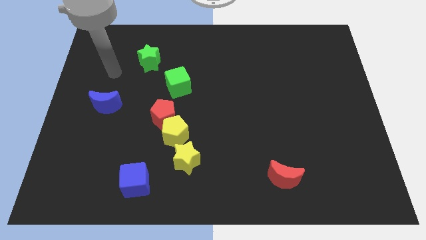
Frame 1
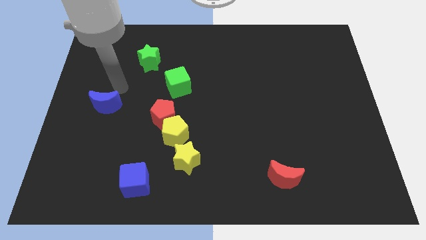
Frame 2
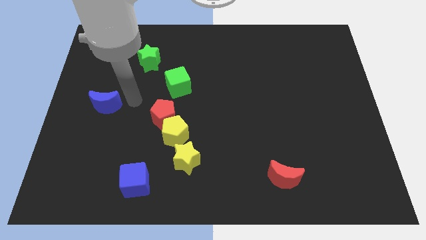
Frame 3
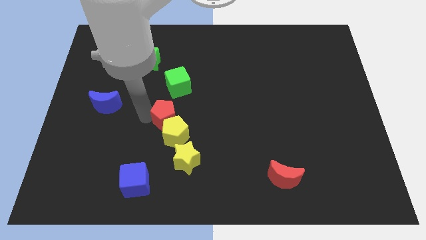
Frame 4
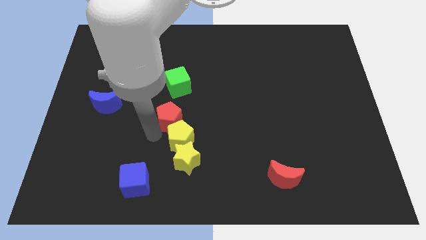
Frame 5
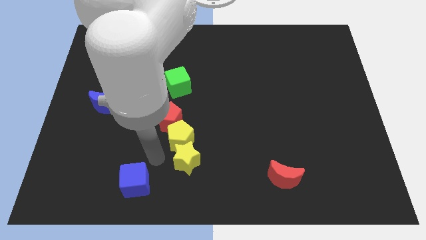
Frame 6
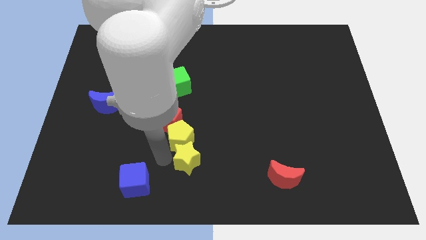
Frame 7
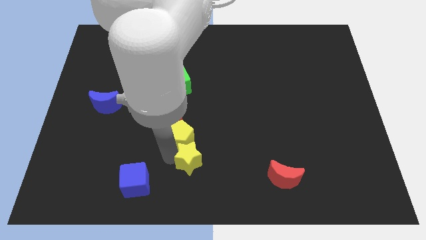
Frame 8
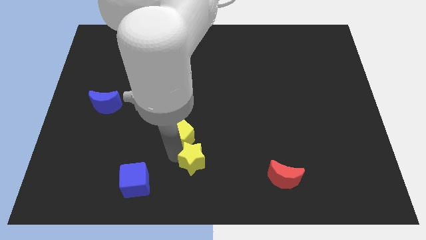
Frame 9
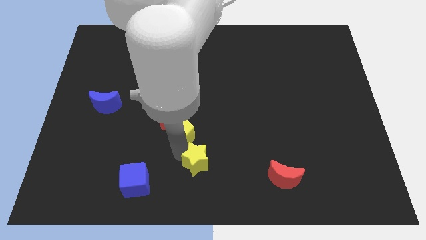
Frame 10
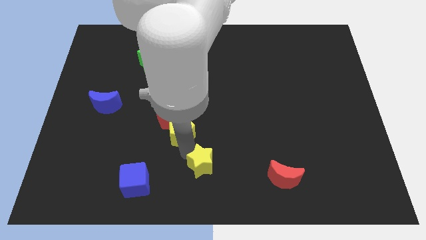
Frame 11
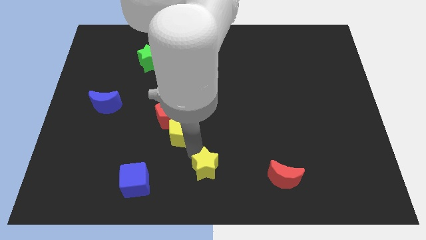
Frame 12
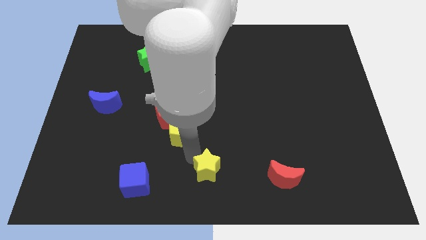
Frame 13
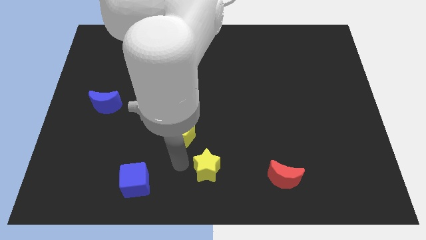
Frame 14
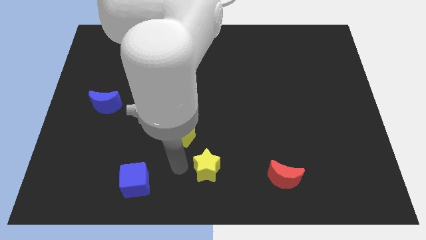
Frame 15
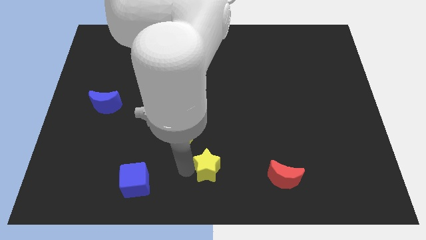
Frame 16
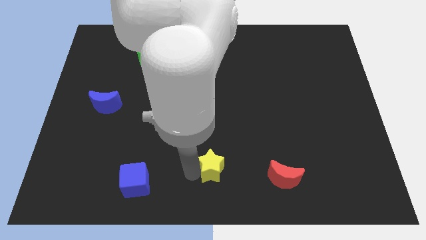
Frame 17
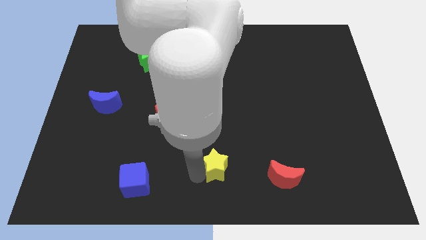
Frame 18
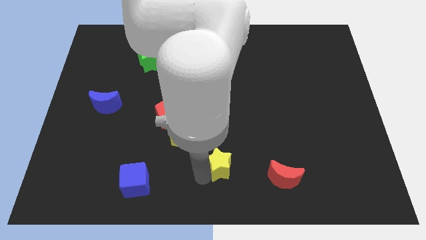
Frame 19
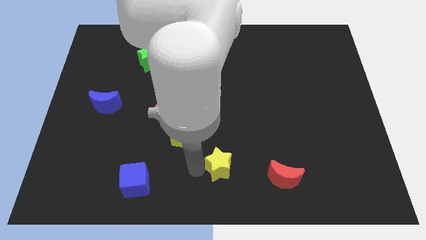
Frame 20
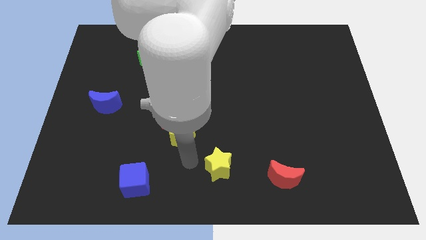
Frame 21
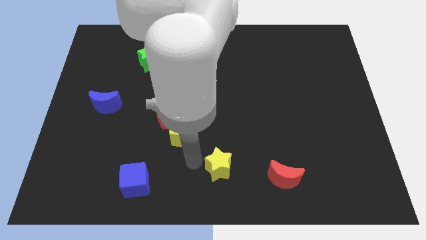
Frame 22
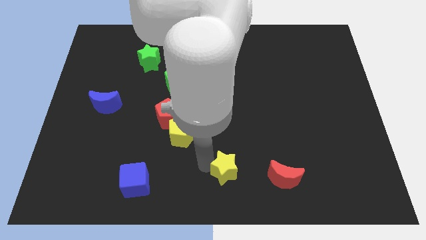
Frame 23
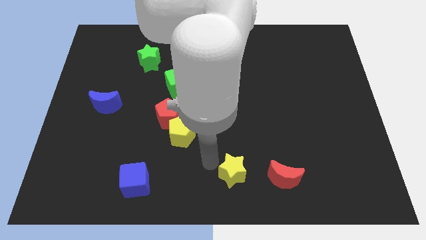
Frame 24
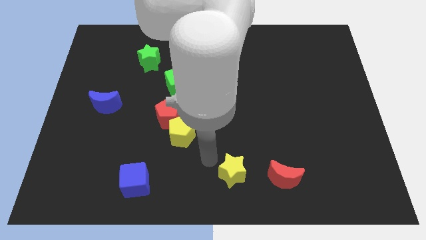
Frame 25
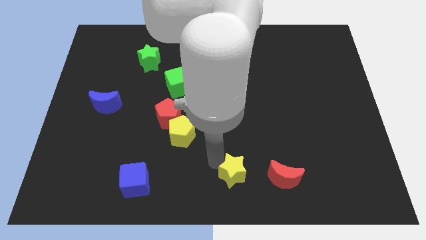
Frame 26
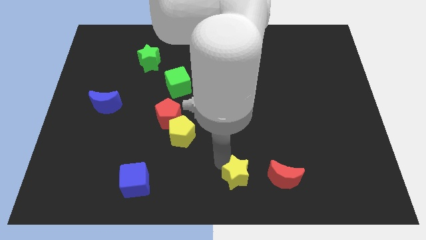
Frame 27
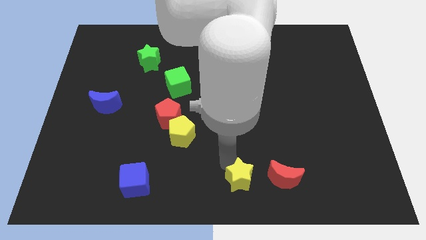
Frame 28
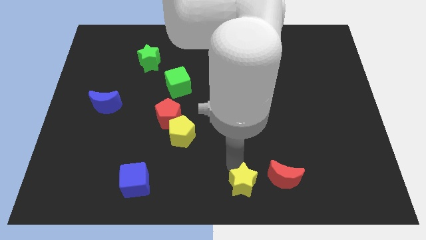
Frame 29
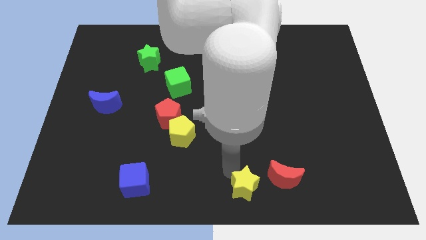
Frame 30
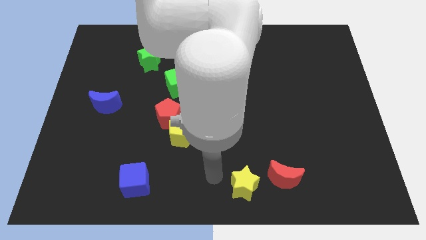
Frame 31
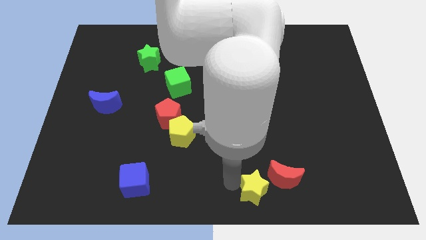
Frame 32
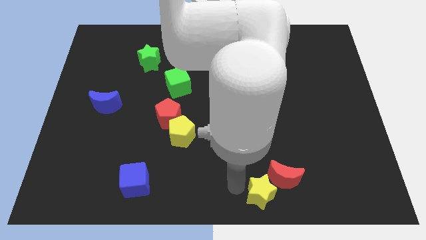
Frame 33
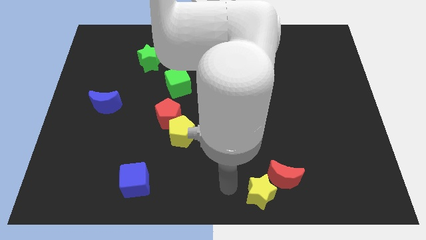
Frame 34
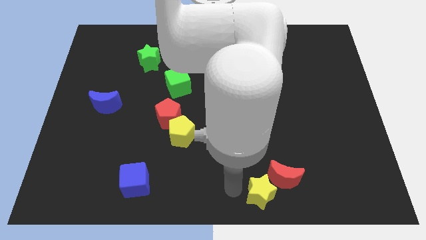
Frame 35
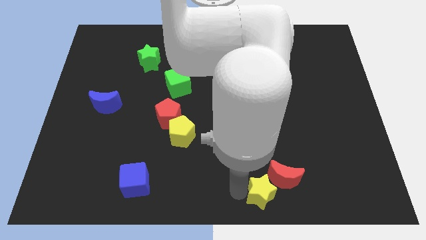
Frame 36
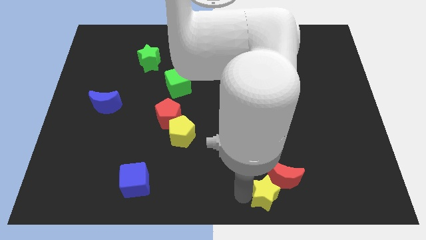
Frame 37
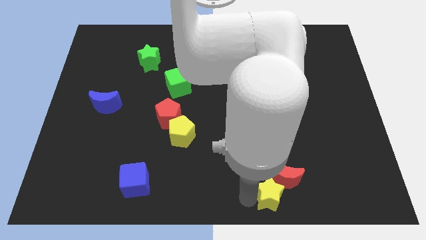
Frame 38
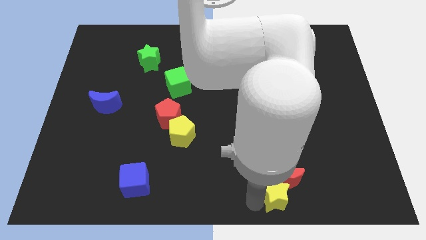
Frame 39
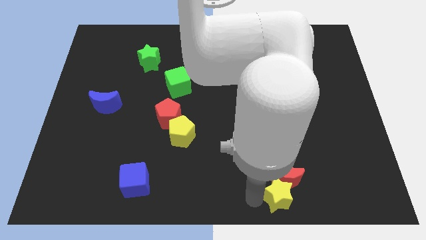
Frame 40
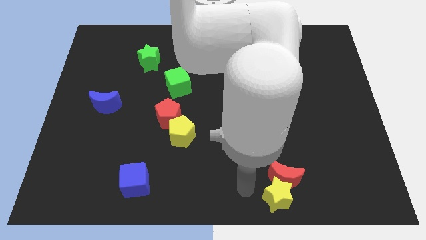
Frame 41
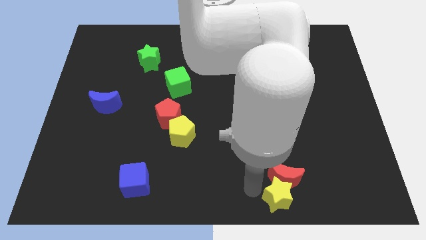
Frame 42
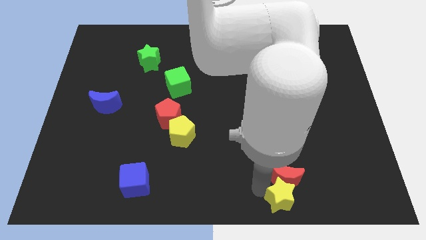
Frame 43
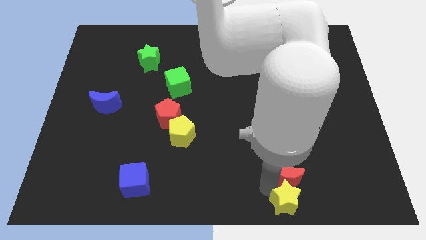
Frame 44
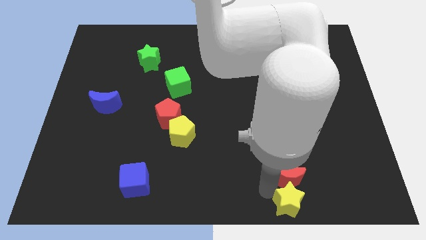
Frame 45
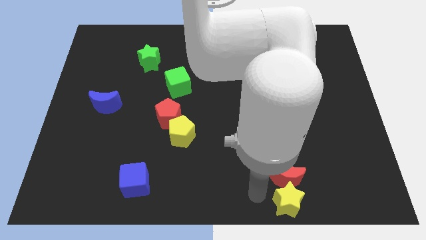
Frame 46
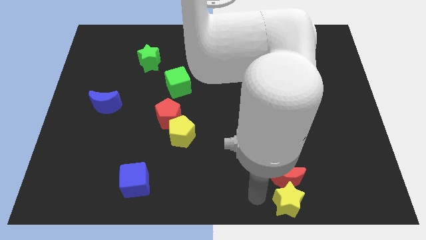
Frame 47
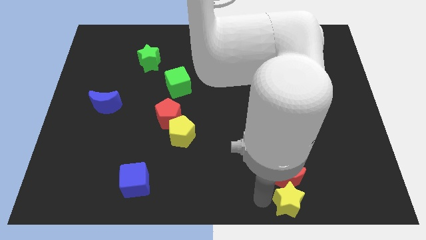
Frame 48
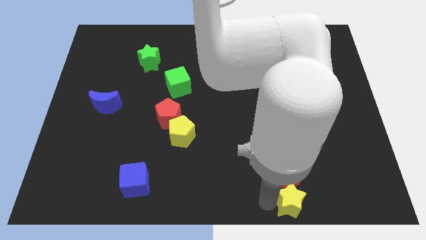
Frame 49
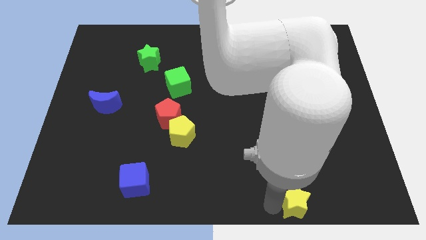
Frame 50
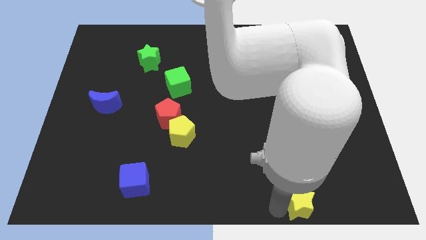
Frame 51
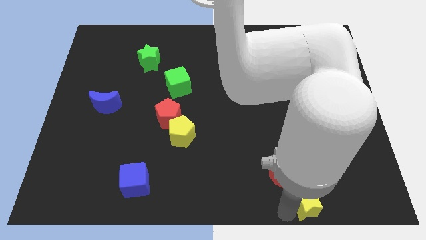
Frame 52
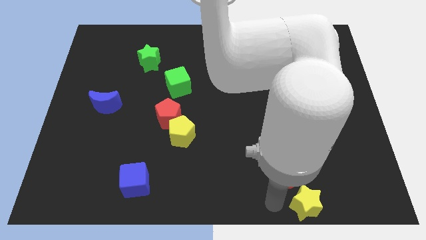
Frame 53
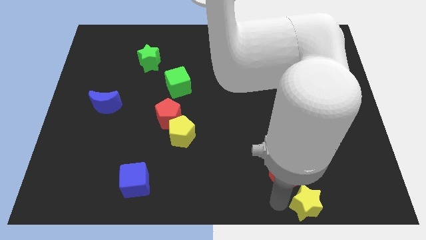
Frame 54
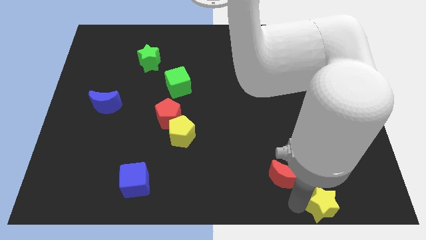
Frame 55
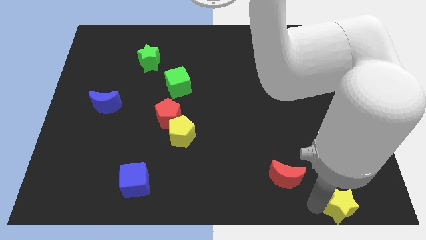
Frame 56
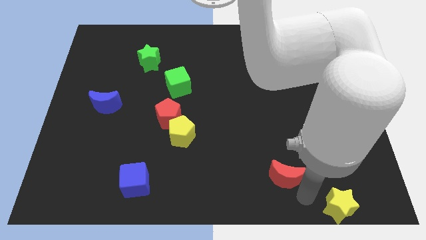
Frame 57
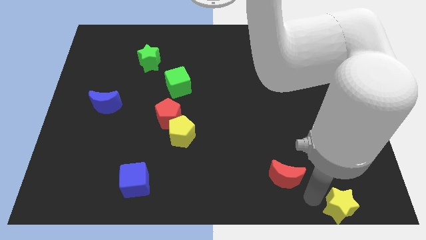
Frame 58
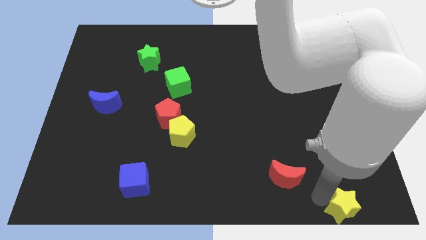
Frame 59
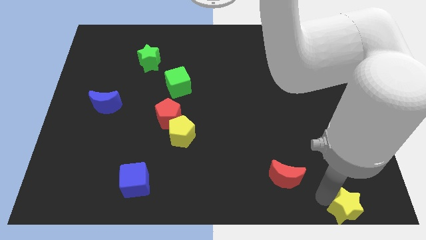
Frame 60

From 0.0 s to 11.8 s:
push the yellow star to the bottom right of the board

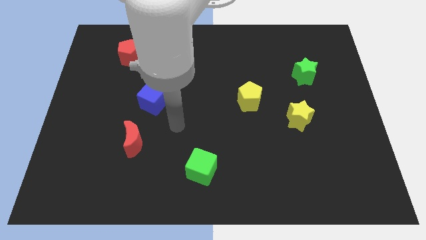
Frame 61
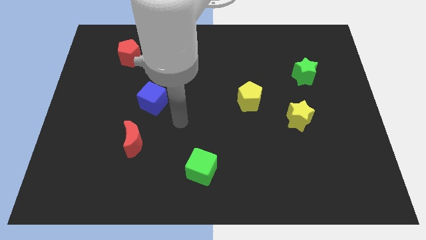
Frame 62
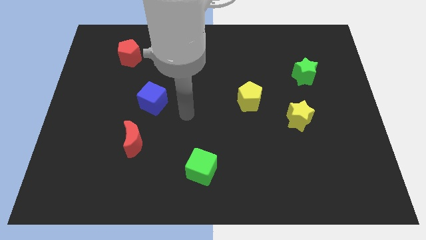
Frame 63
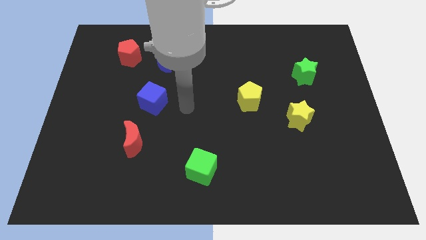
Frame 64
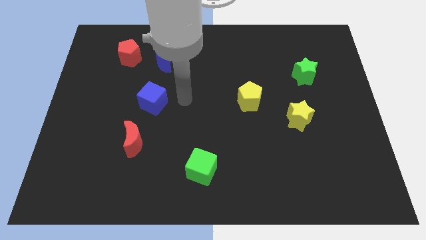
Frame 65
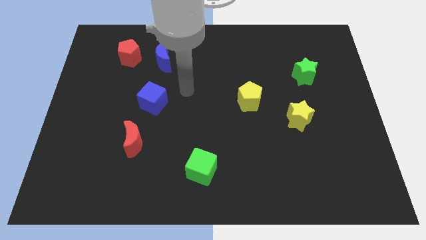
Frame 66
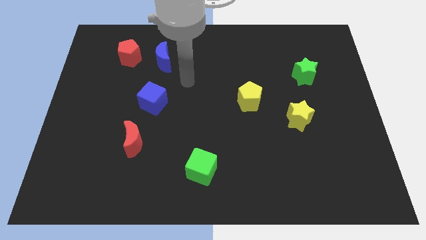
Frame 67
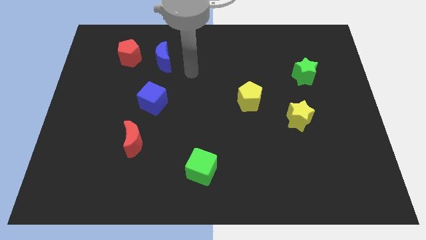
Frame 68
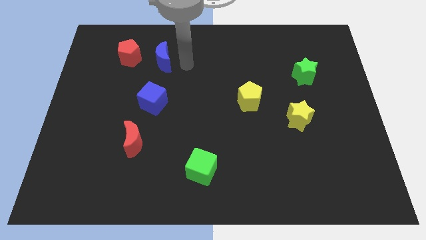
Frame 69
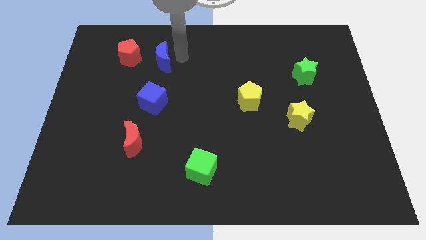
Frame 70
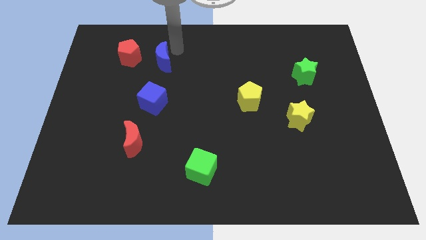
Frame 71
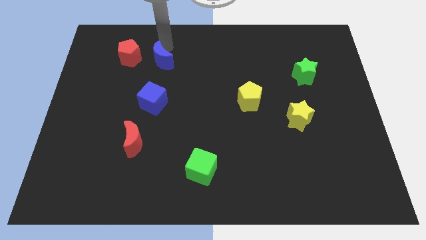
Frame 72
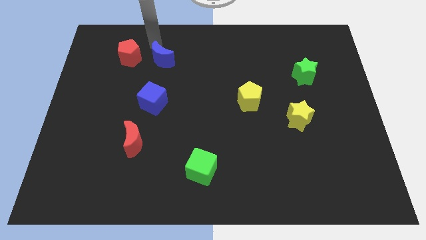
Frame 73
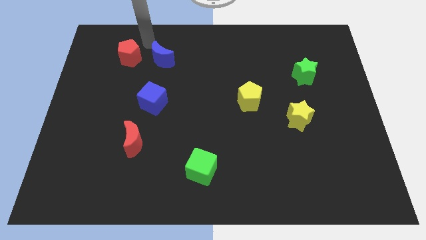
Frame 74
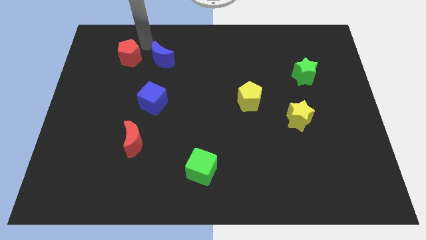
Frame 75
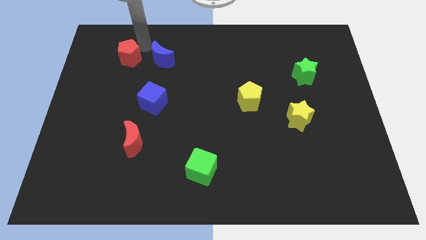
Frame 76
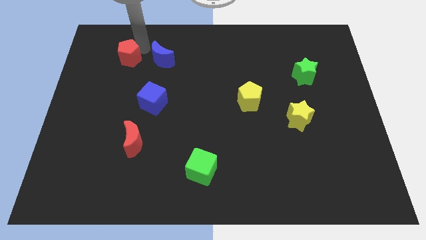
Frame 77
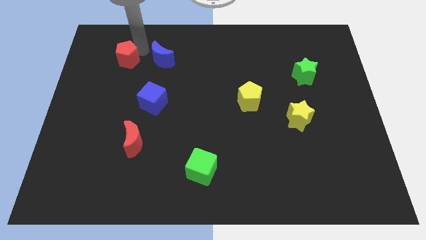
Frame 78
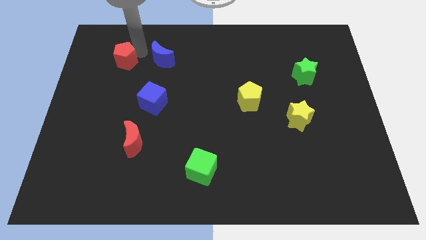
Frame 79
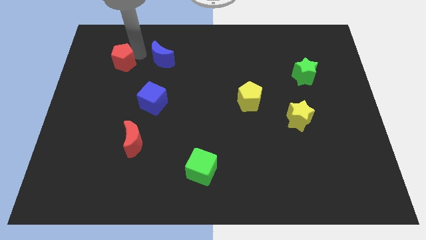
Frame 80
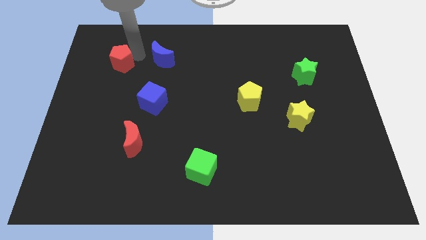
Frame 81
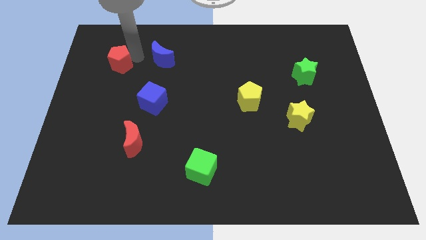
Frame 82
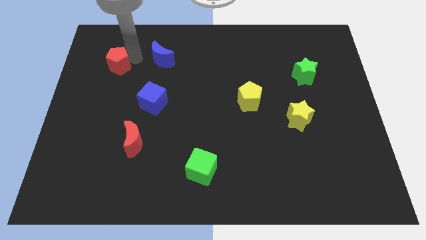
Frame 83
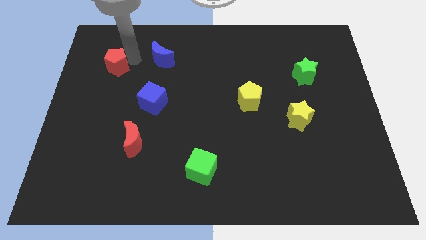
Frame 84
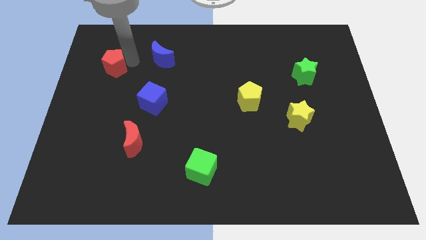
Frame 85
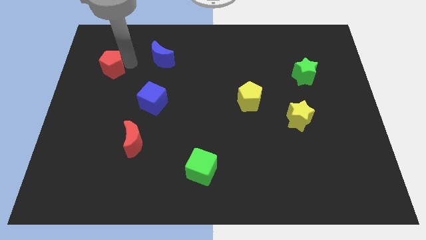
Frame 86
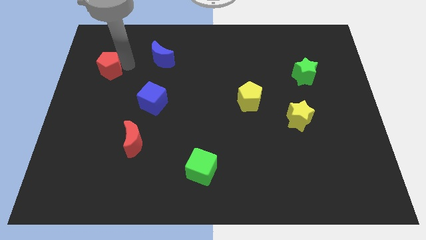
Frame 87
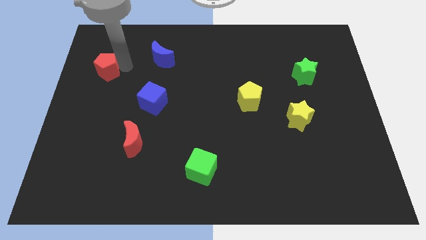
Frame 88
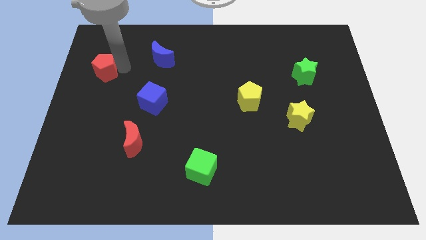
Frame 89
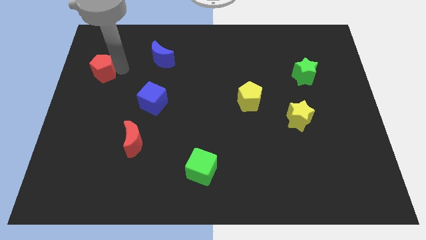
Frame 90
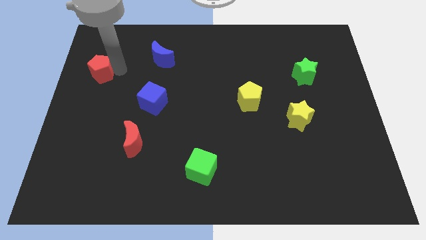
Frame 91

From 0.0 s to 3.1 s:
put the red pentagon to the center left
